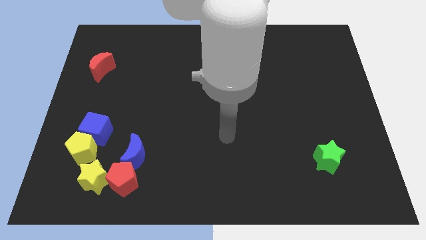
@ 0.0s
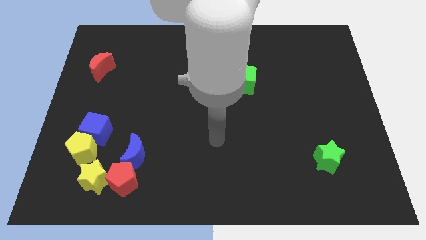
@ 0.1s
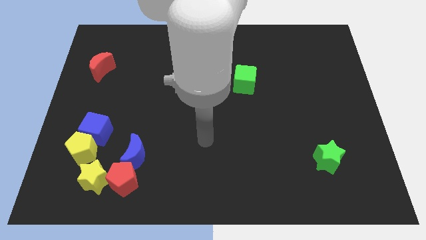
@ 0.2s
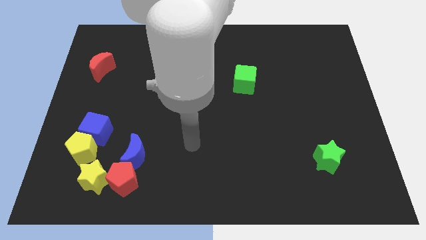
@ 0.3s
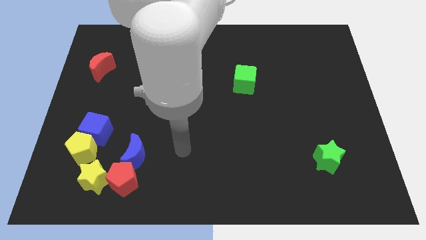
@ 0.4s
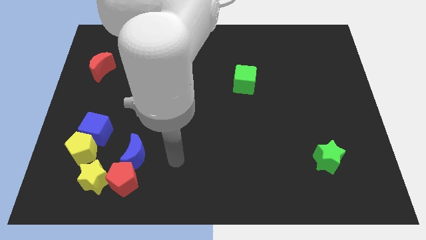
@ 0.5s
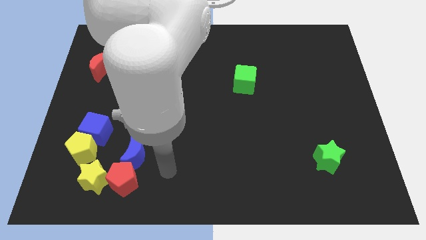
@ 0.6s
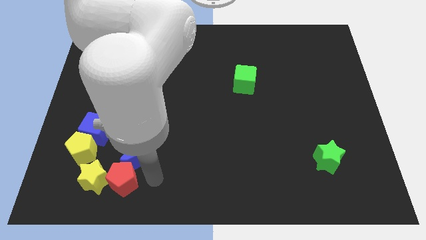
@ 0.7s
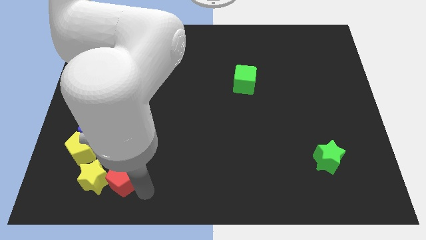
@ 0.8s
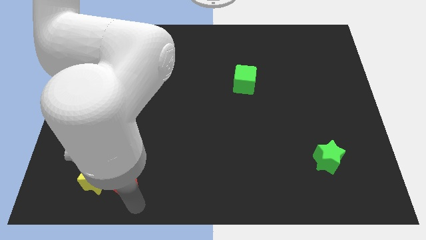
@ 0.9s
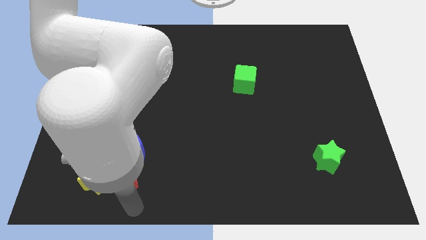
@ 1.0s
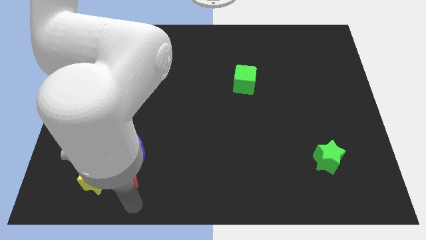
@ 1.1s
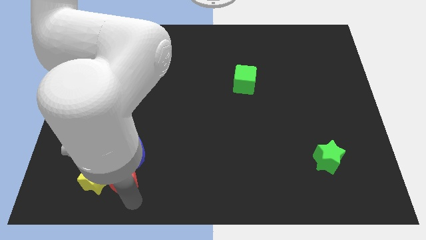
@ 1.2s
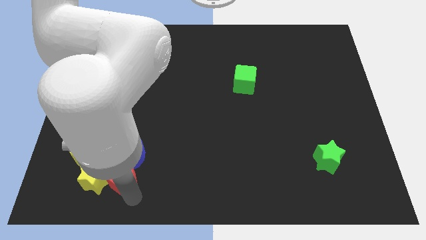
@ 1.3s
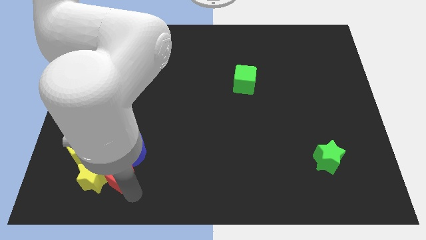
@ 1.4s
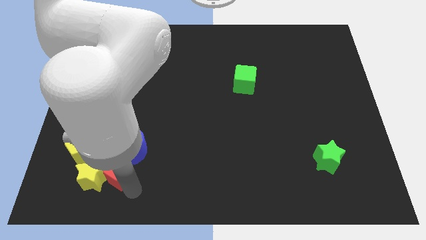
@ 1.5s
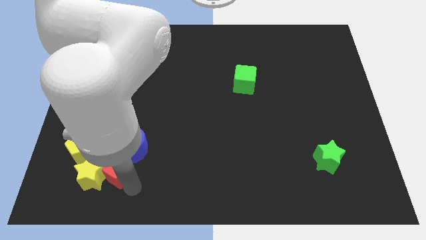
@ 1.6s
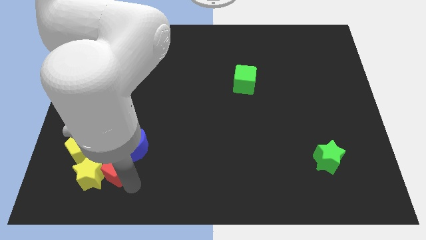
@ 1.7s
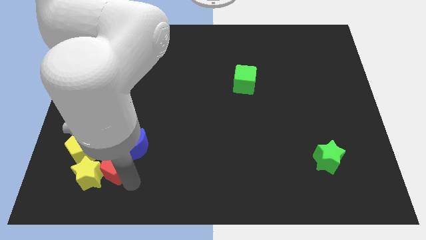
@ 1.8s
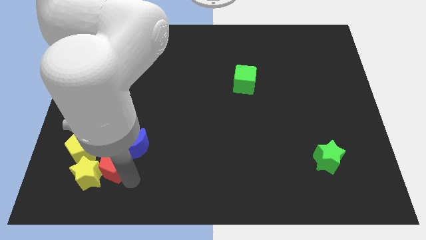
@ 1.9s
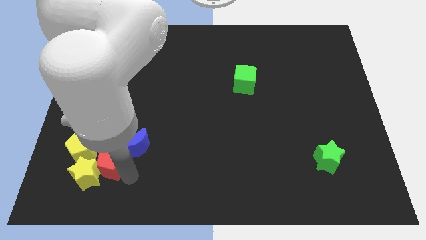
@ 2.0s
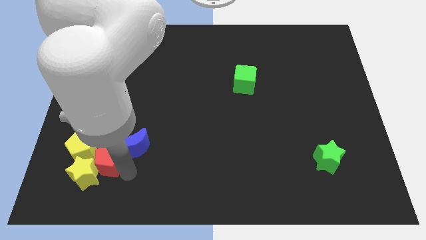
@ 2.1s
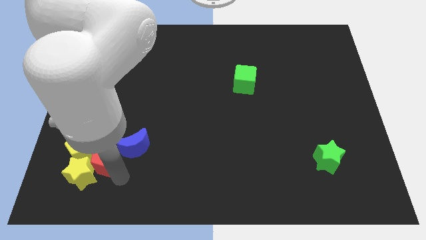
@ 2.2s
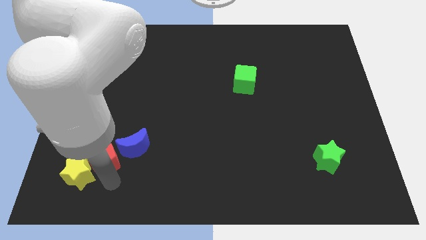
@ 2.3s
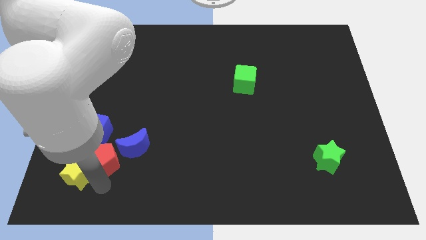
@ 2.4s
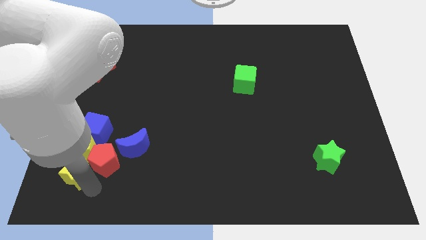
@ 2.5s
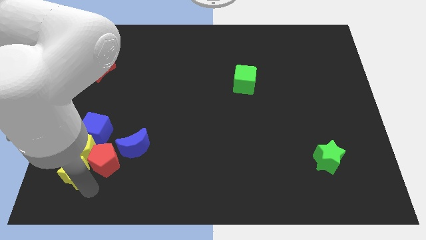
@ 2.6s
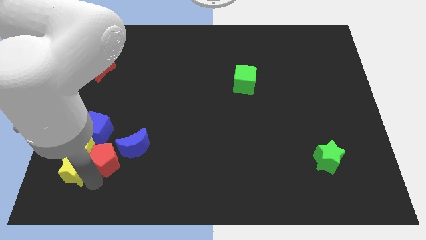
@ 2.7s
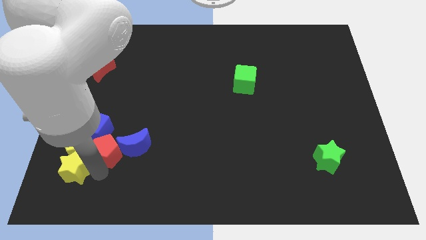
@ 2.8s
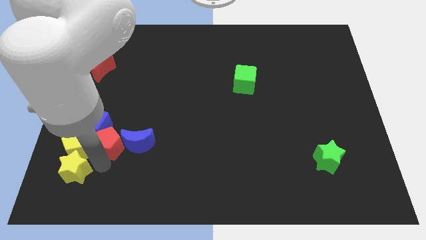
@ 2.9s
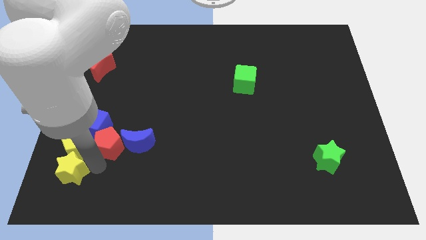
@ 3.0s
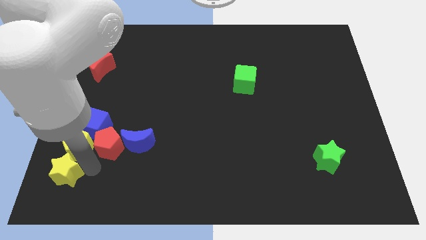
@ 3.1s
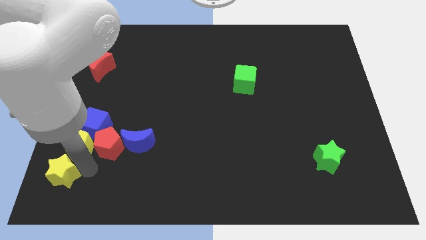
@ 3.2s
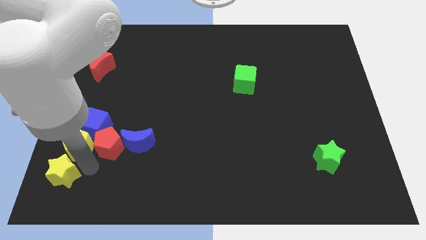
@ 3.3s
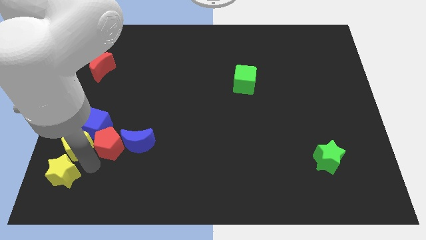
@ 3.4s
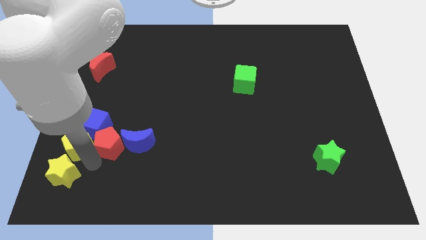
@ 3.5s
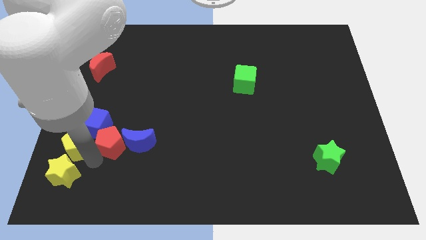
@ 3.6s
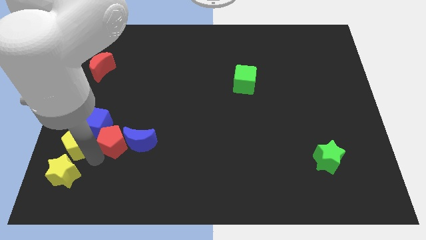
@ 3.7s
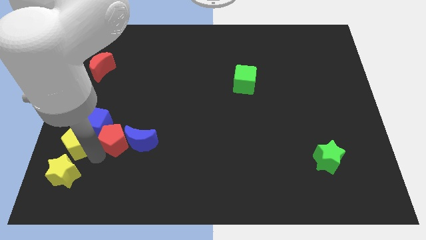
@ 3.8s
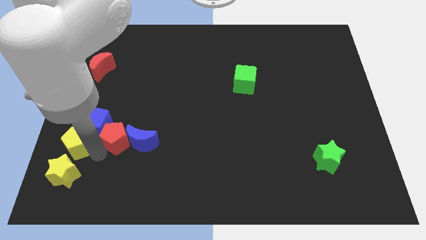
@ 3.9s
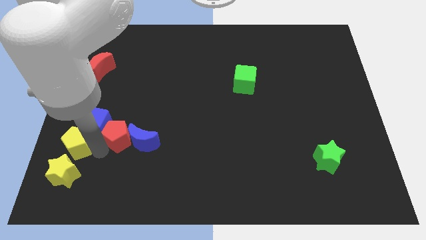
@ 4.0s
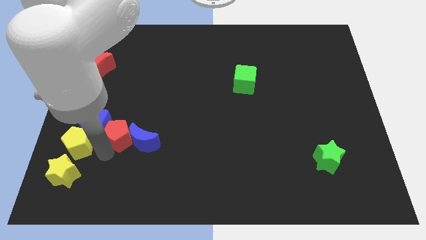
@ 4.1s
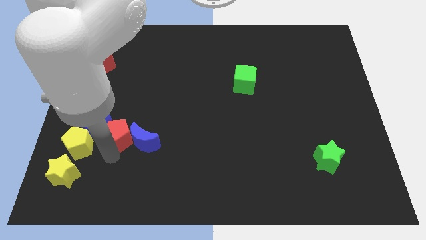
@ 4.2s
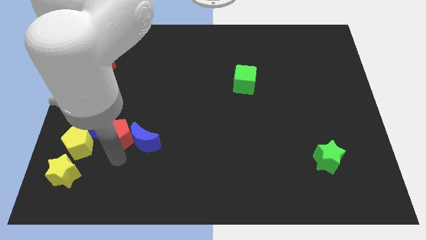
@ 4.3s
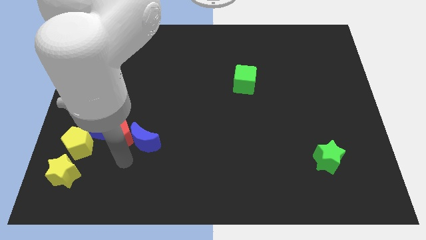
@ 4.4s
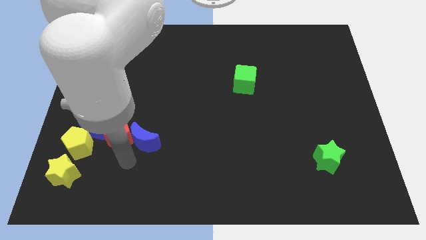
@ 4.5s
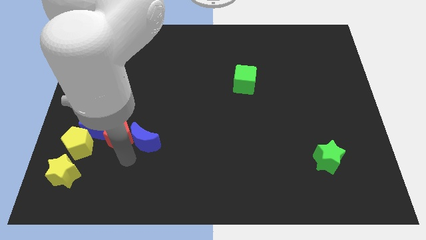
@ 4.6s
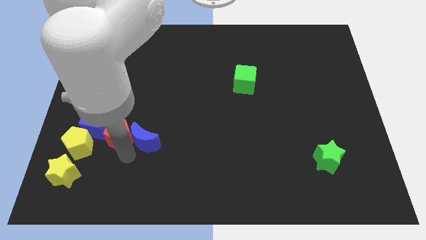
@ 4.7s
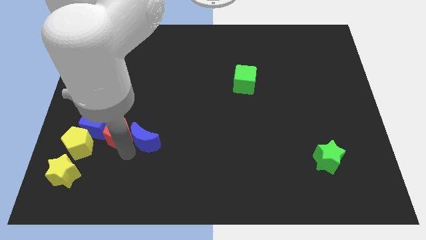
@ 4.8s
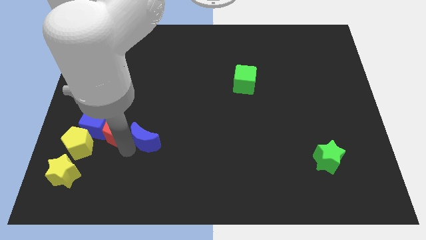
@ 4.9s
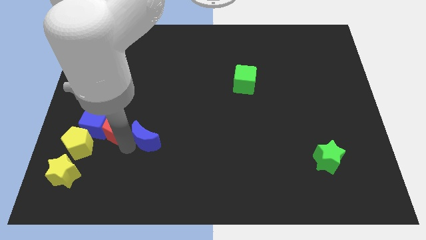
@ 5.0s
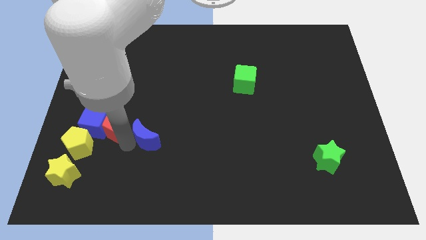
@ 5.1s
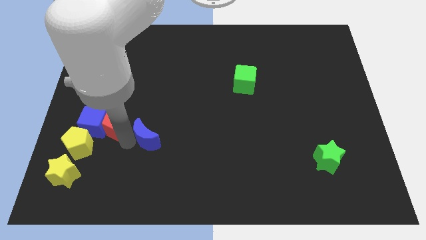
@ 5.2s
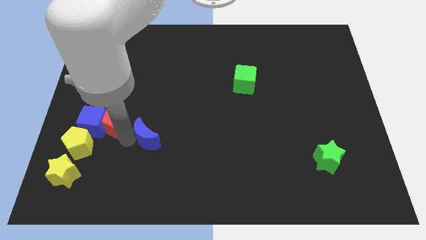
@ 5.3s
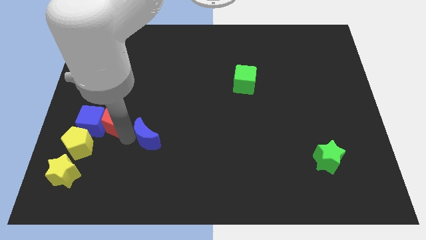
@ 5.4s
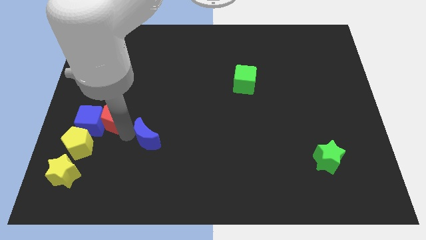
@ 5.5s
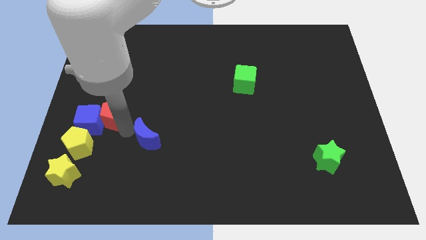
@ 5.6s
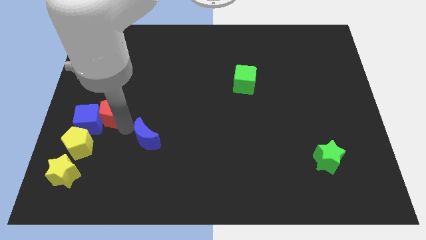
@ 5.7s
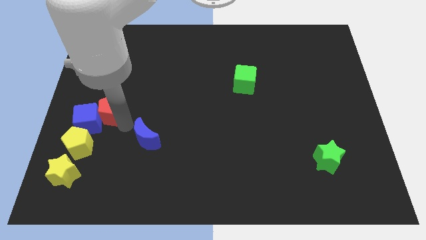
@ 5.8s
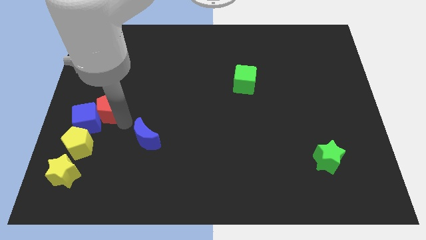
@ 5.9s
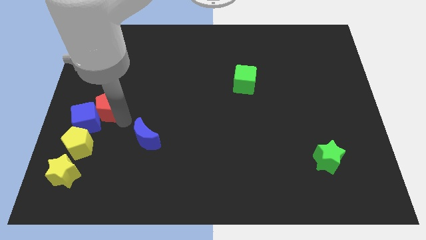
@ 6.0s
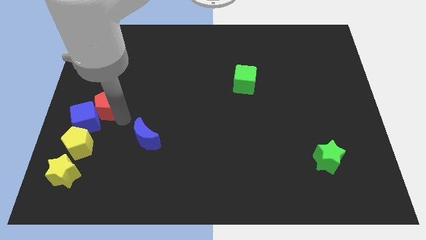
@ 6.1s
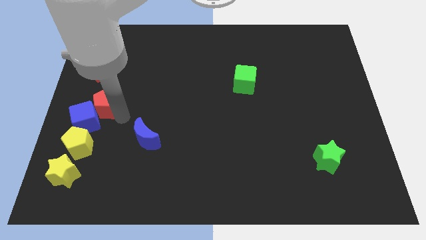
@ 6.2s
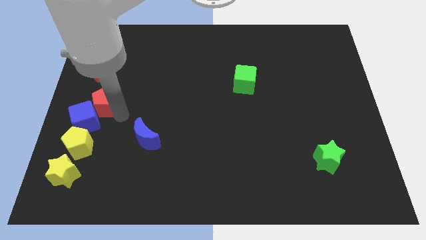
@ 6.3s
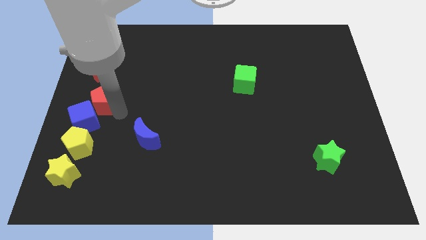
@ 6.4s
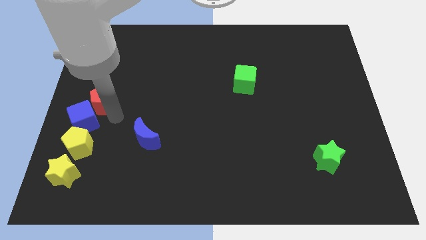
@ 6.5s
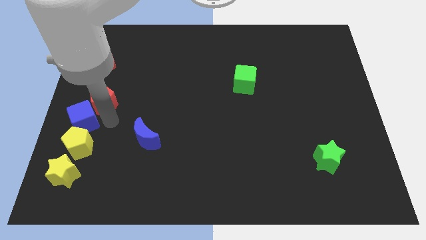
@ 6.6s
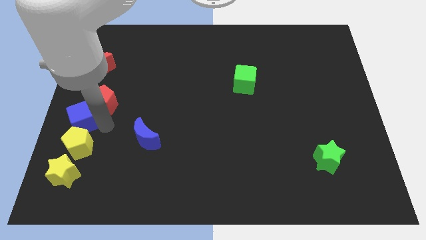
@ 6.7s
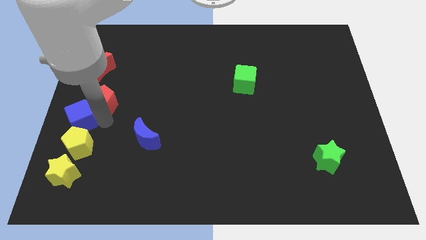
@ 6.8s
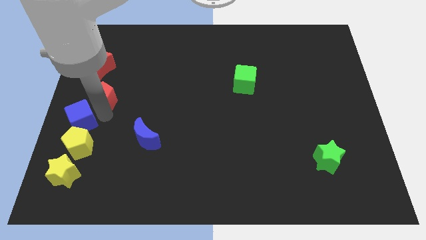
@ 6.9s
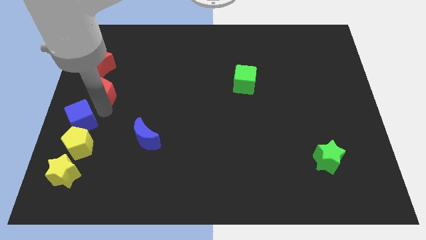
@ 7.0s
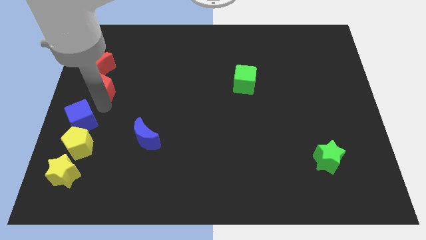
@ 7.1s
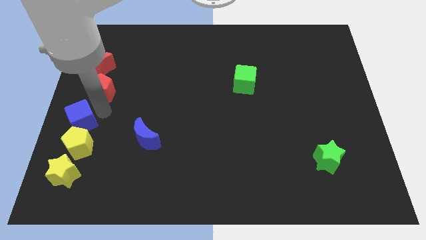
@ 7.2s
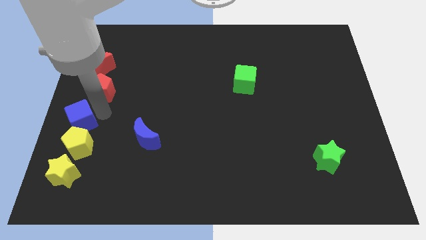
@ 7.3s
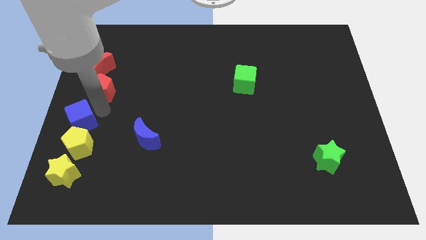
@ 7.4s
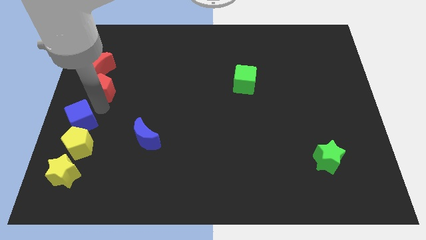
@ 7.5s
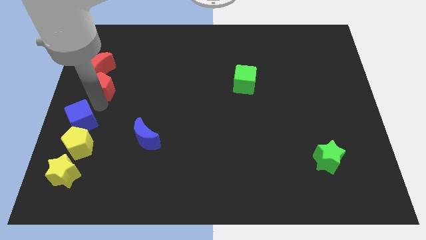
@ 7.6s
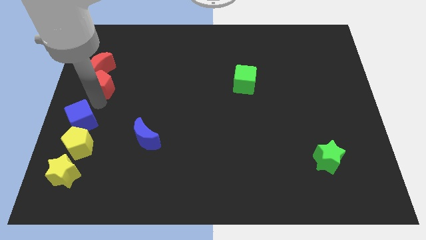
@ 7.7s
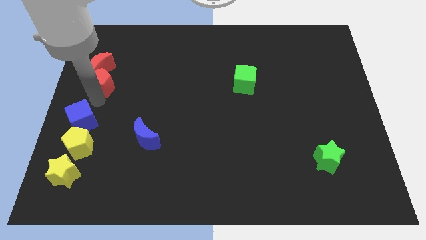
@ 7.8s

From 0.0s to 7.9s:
slide the red pentagon towards the red moon
